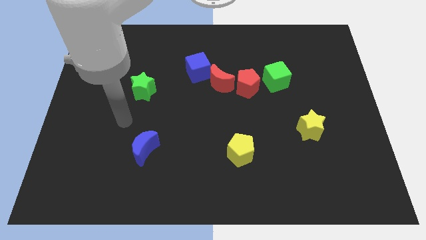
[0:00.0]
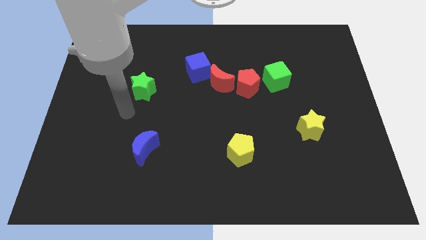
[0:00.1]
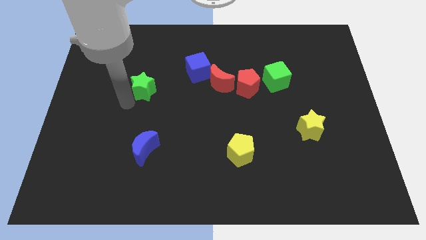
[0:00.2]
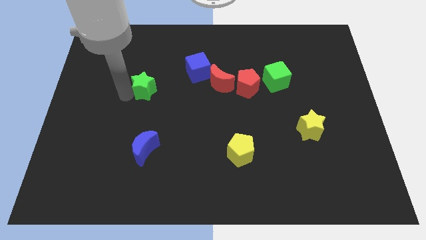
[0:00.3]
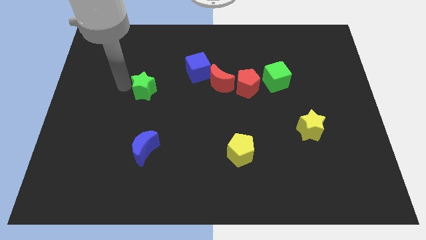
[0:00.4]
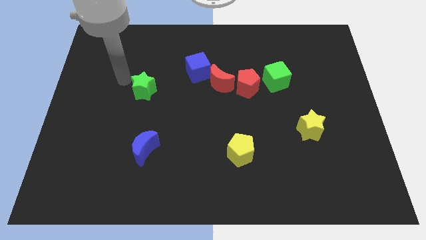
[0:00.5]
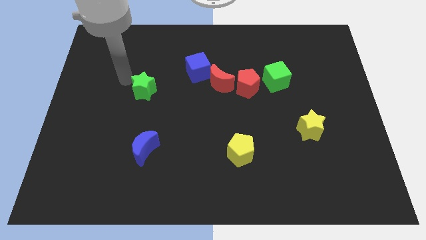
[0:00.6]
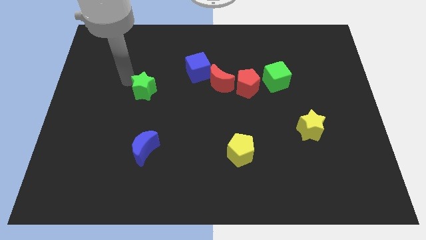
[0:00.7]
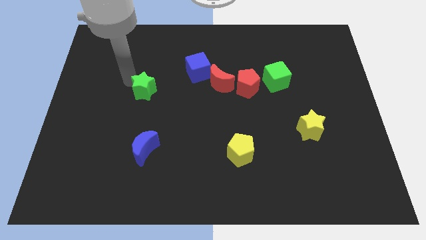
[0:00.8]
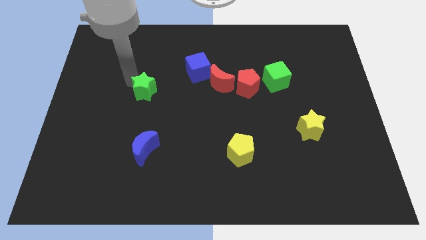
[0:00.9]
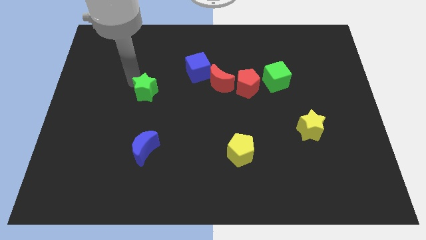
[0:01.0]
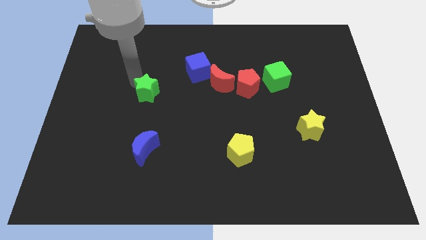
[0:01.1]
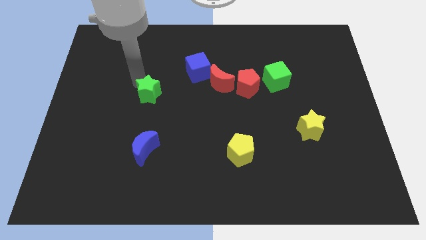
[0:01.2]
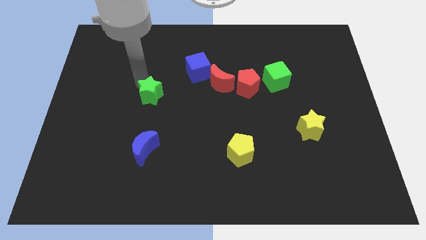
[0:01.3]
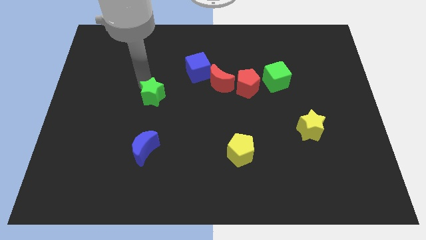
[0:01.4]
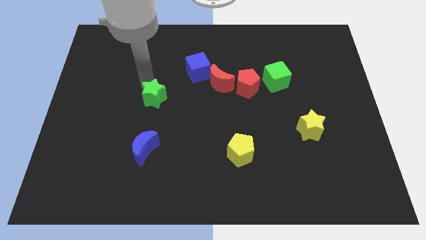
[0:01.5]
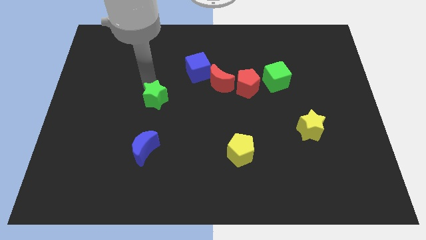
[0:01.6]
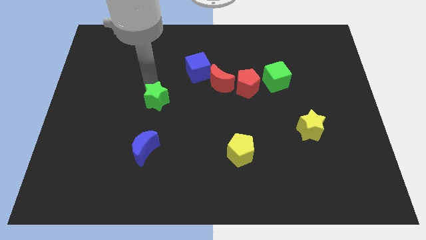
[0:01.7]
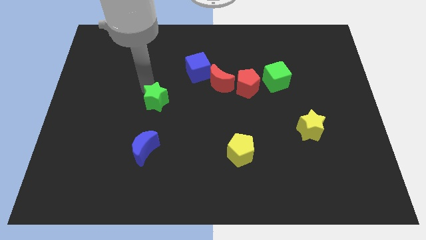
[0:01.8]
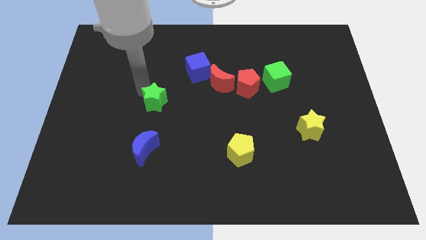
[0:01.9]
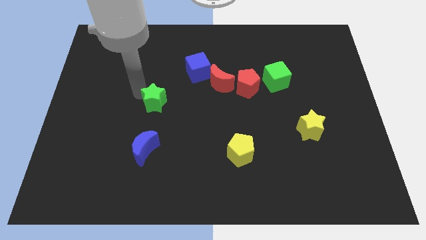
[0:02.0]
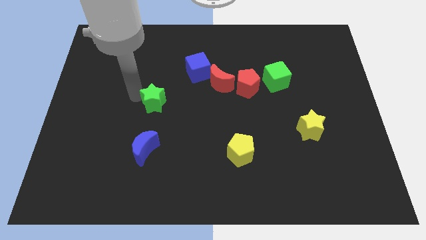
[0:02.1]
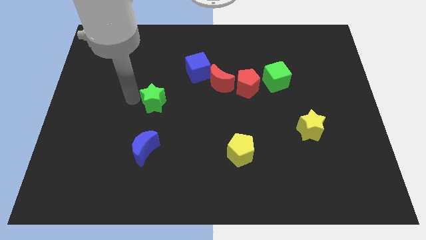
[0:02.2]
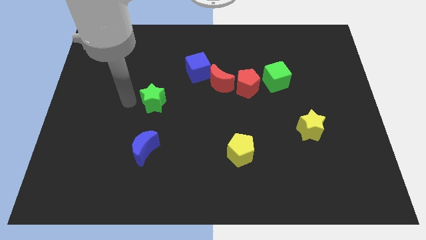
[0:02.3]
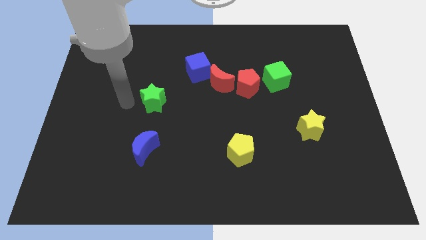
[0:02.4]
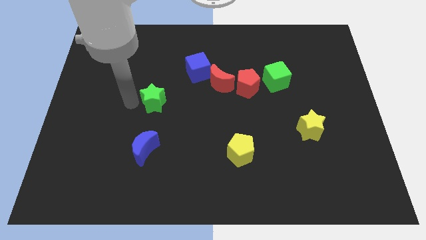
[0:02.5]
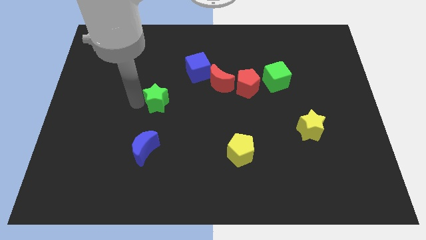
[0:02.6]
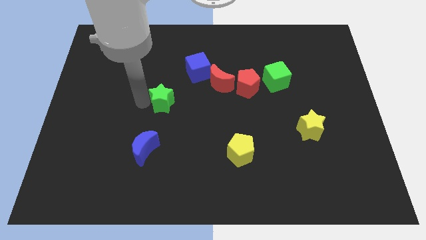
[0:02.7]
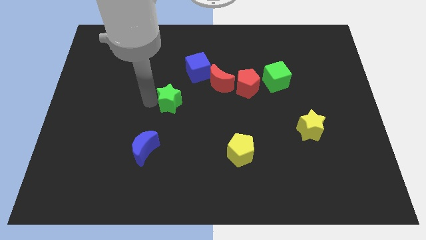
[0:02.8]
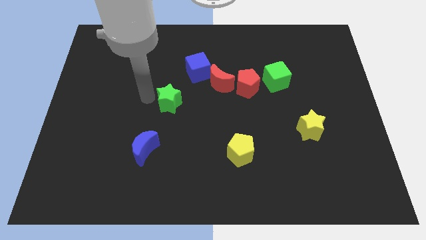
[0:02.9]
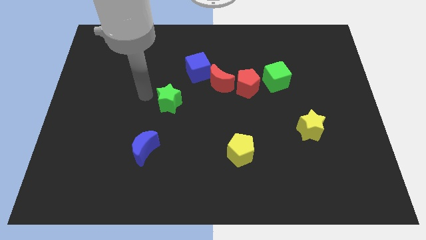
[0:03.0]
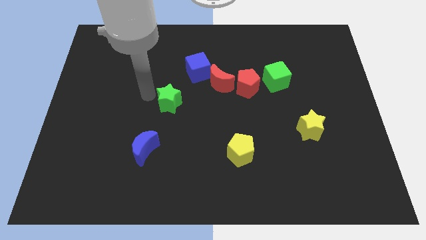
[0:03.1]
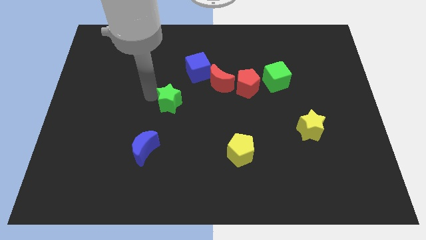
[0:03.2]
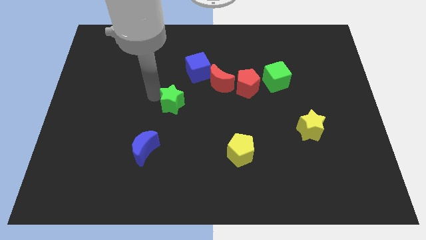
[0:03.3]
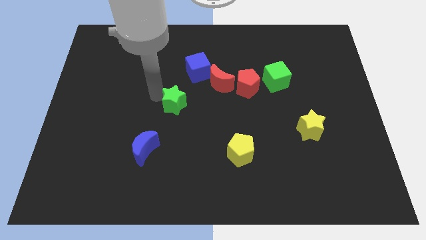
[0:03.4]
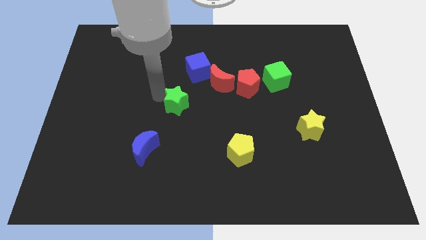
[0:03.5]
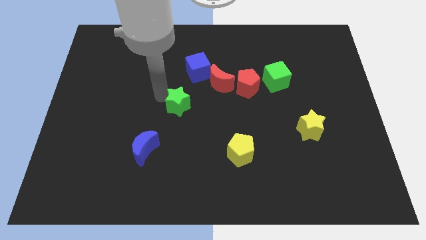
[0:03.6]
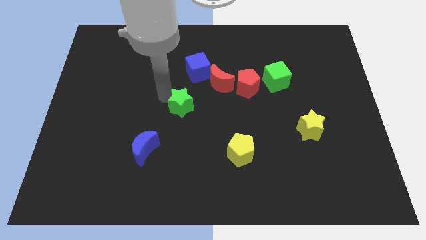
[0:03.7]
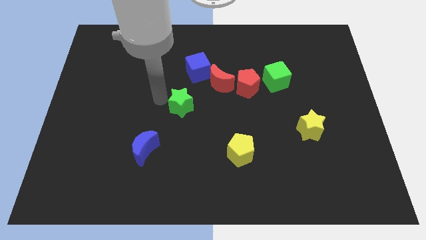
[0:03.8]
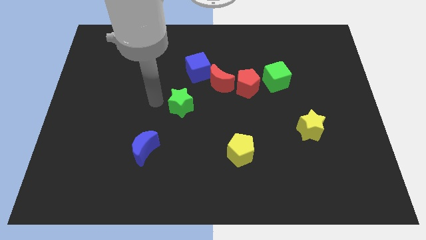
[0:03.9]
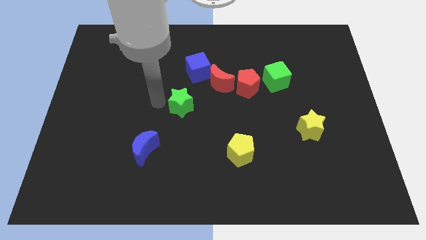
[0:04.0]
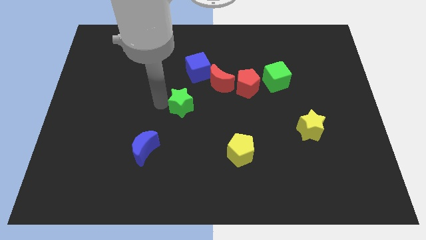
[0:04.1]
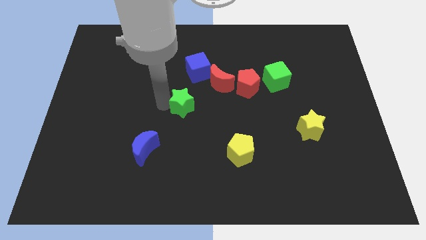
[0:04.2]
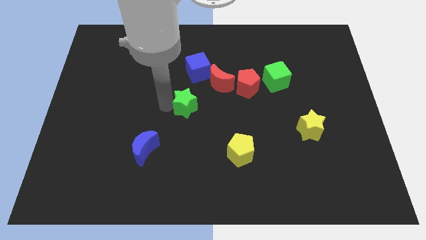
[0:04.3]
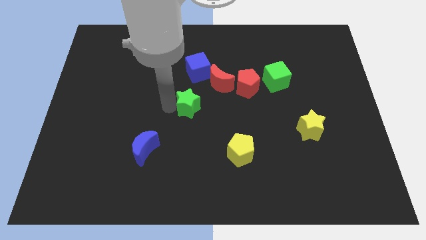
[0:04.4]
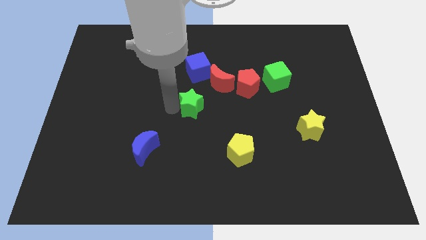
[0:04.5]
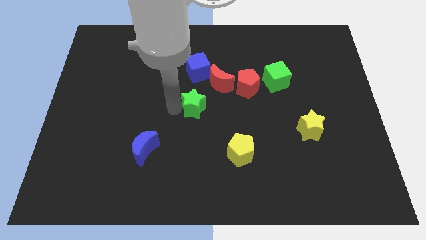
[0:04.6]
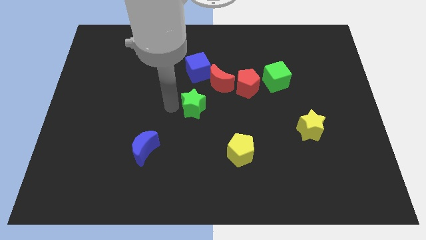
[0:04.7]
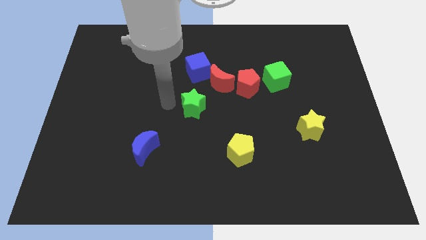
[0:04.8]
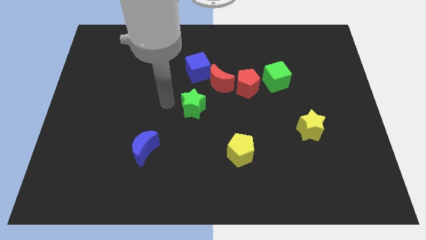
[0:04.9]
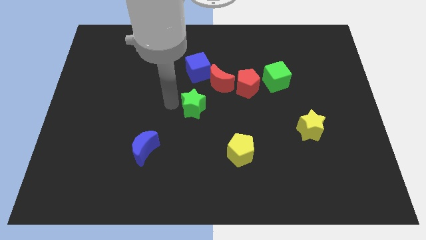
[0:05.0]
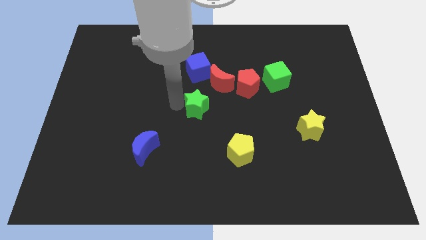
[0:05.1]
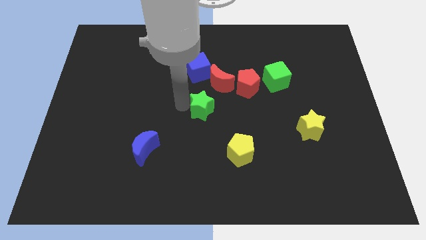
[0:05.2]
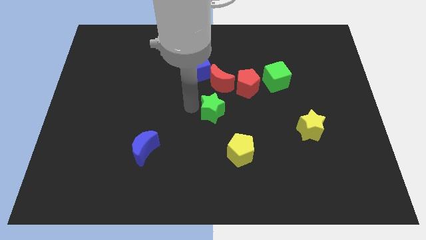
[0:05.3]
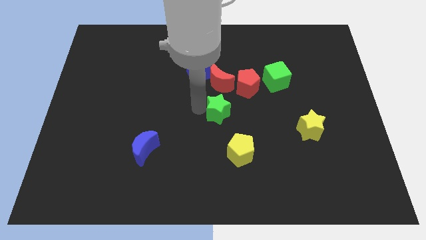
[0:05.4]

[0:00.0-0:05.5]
push the green star above the yellow pentagon
